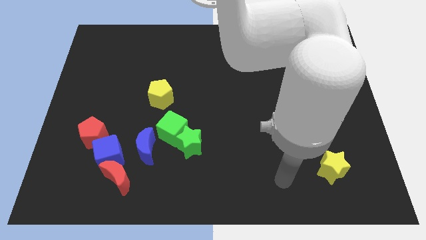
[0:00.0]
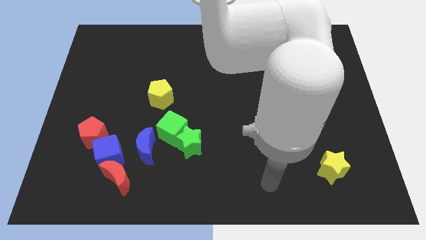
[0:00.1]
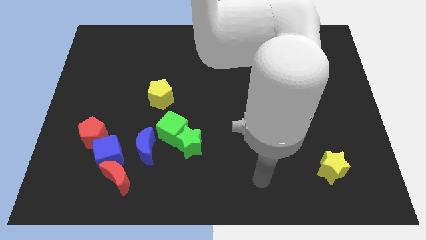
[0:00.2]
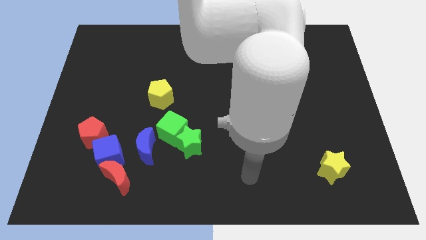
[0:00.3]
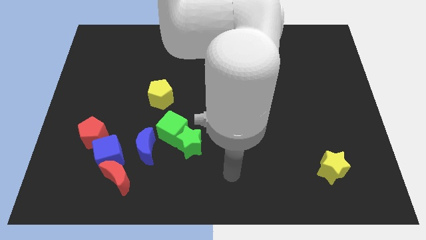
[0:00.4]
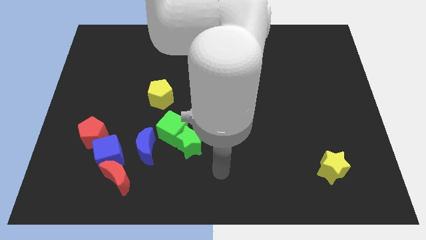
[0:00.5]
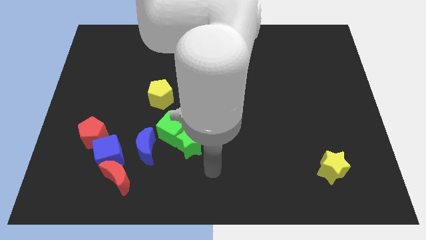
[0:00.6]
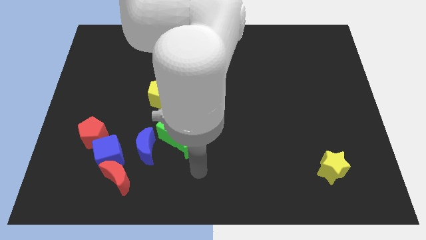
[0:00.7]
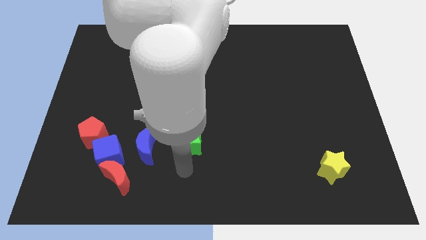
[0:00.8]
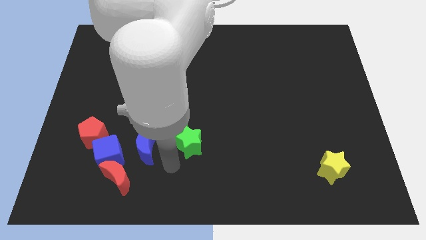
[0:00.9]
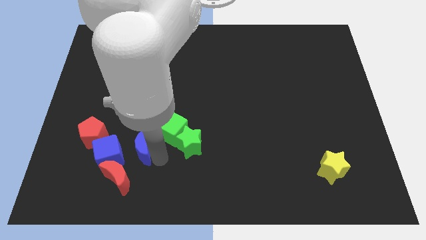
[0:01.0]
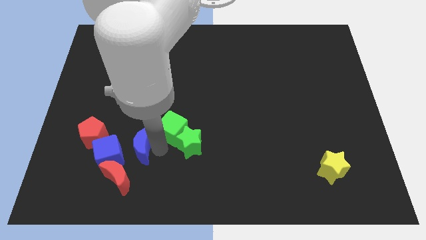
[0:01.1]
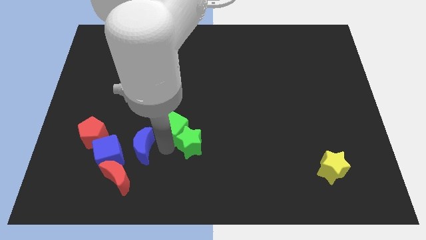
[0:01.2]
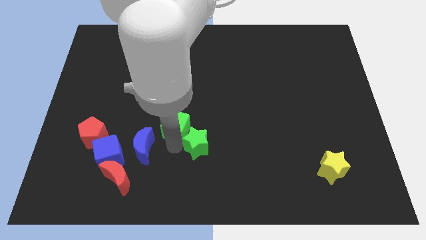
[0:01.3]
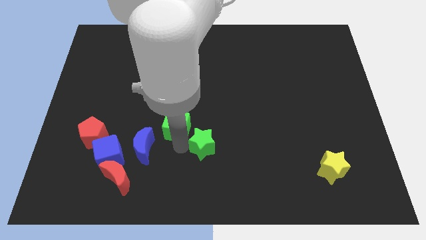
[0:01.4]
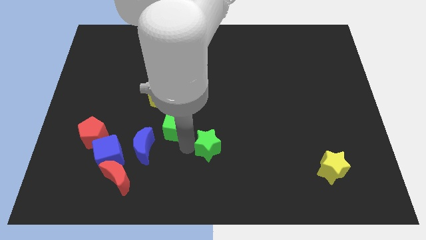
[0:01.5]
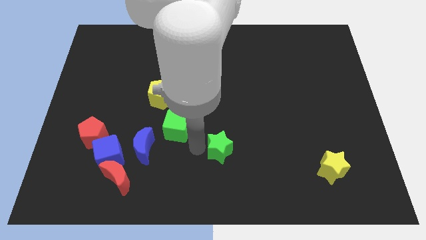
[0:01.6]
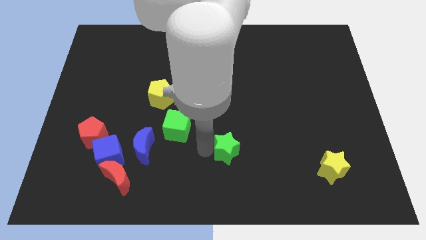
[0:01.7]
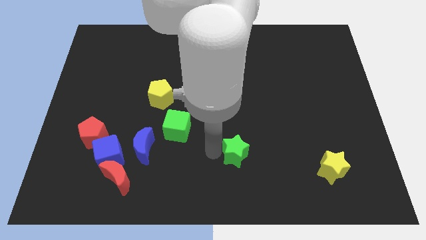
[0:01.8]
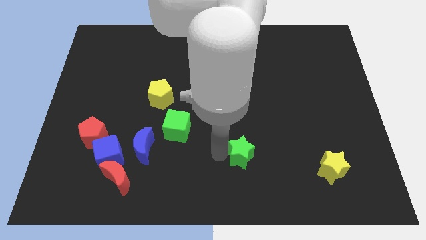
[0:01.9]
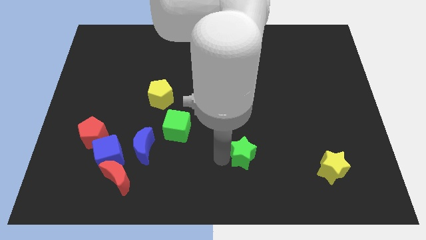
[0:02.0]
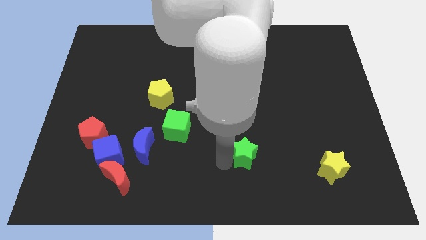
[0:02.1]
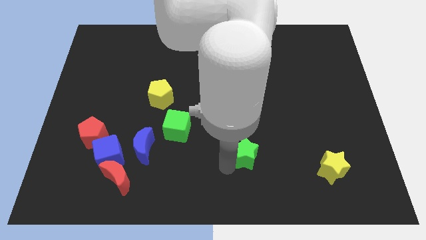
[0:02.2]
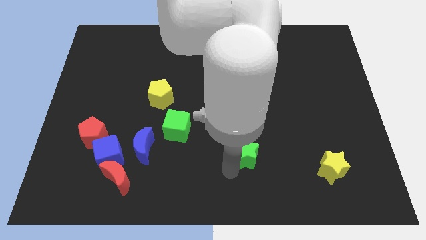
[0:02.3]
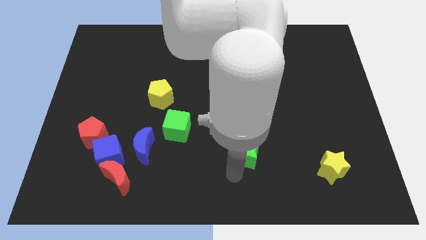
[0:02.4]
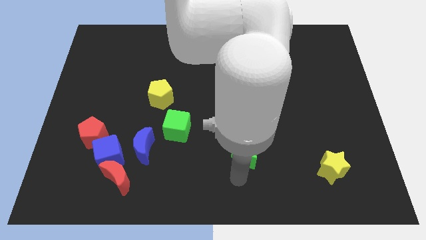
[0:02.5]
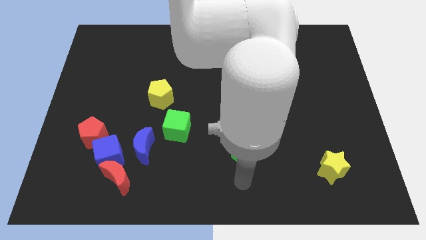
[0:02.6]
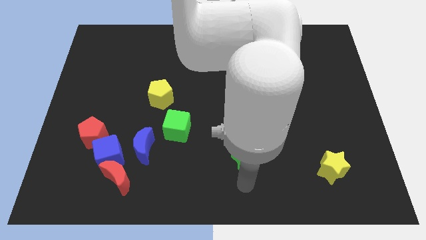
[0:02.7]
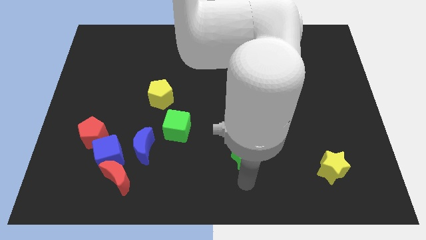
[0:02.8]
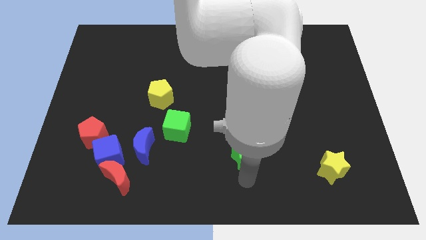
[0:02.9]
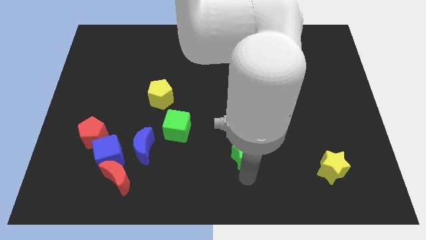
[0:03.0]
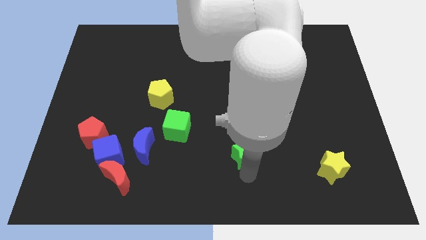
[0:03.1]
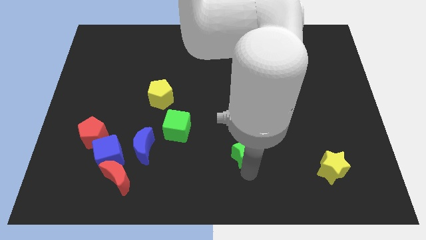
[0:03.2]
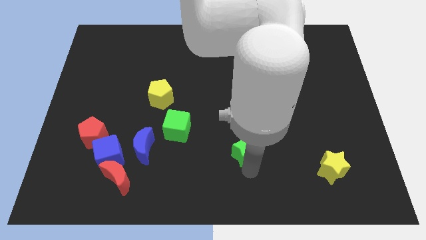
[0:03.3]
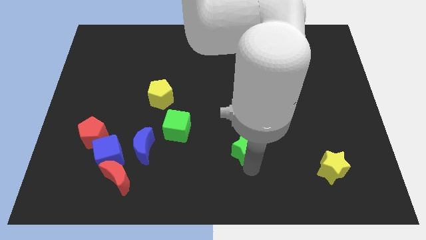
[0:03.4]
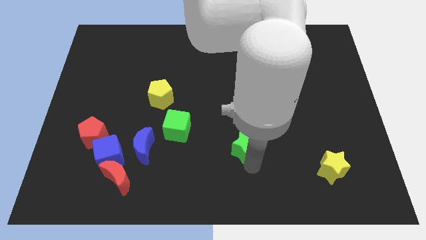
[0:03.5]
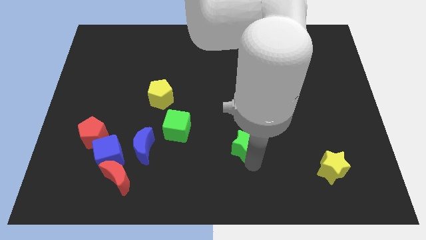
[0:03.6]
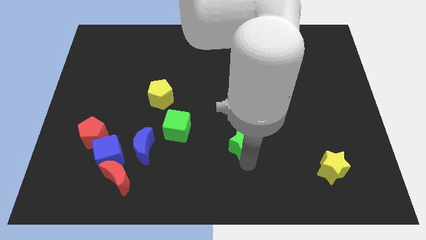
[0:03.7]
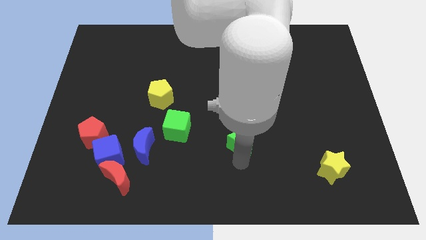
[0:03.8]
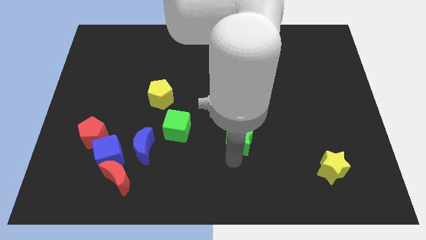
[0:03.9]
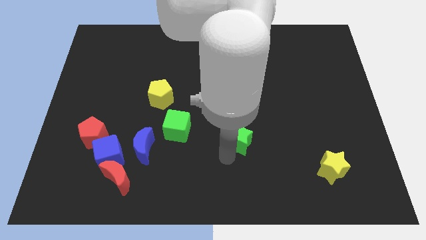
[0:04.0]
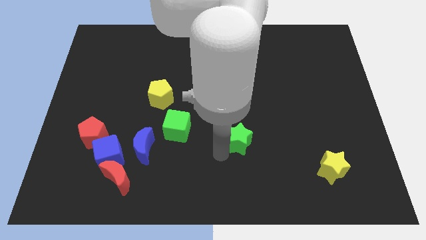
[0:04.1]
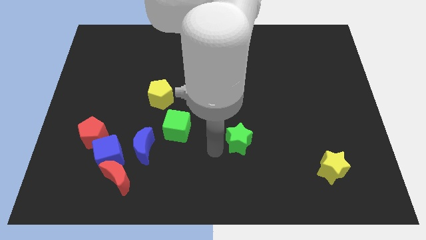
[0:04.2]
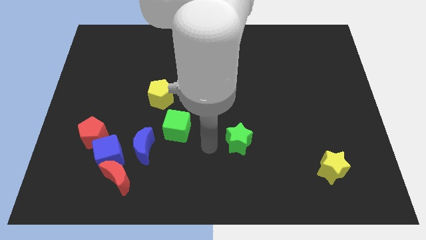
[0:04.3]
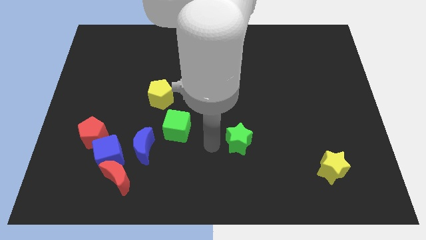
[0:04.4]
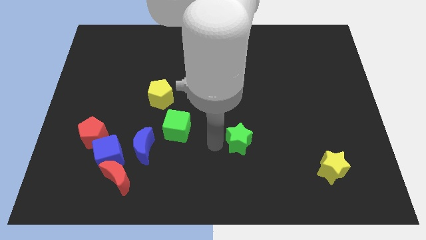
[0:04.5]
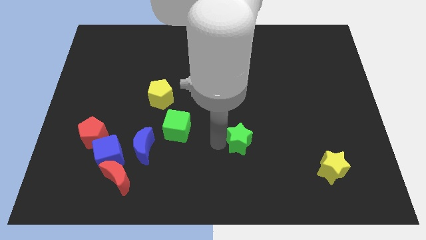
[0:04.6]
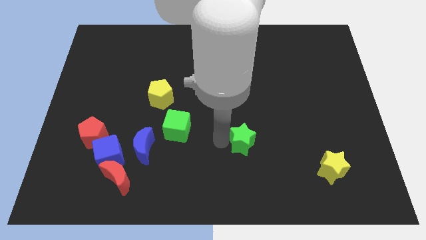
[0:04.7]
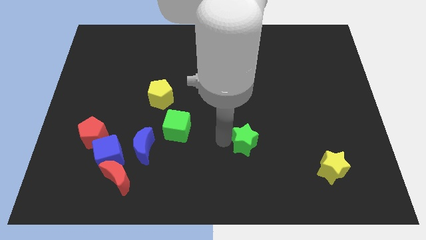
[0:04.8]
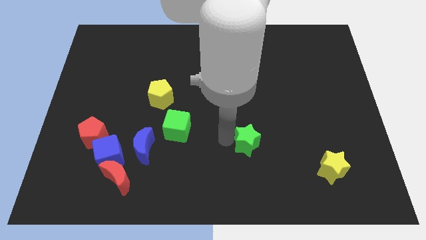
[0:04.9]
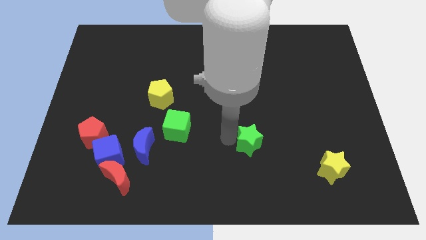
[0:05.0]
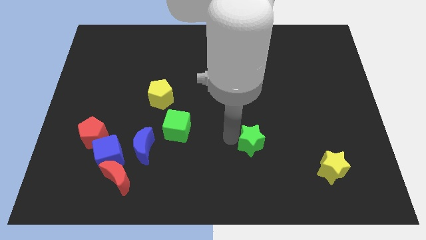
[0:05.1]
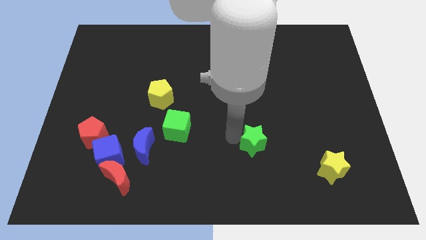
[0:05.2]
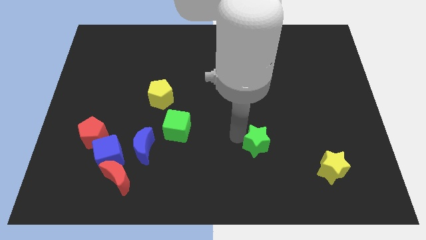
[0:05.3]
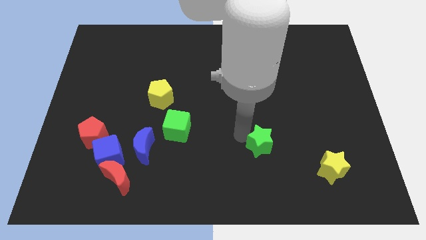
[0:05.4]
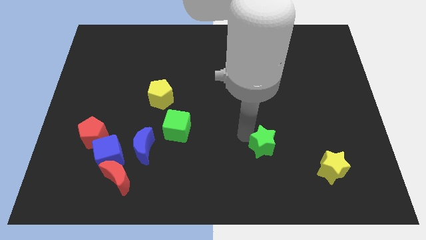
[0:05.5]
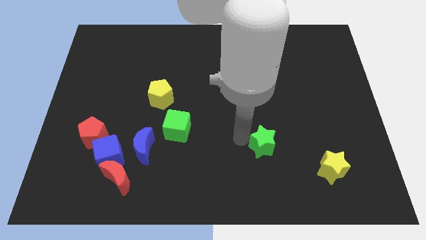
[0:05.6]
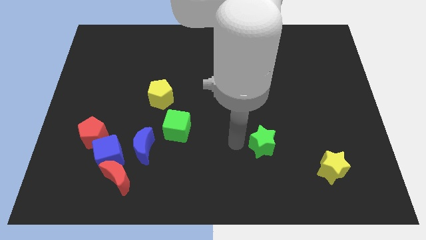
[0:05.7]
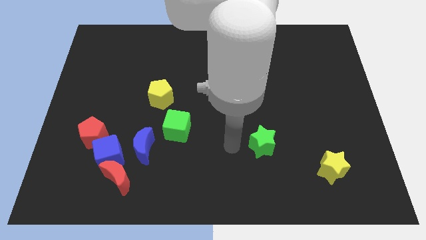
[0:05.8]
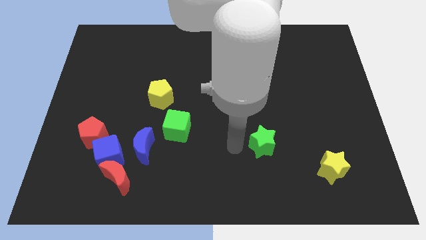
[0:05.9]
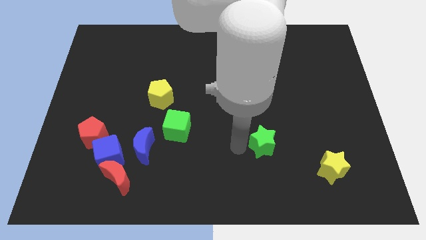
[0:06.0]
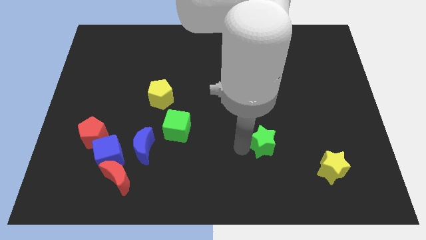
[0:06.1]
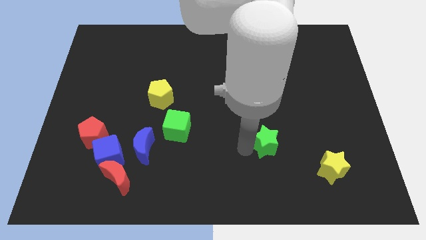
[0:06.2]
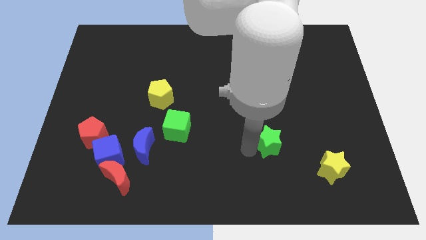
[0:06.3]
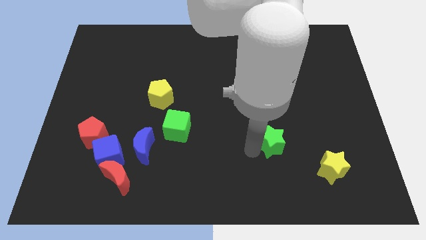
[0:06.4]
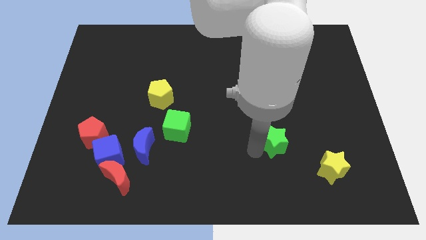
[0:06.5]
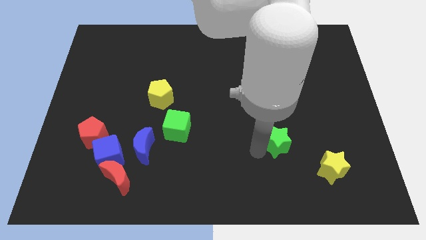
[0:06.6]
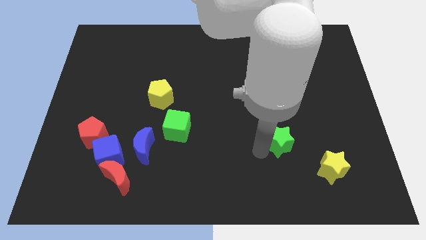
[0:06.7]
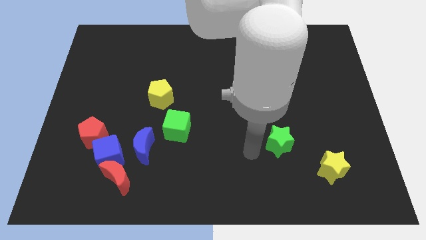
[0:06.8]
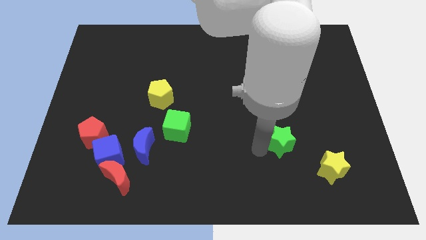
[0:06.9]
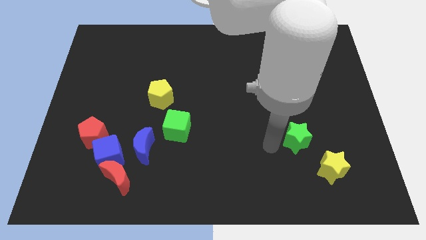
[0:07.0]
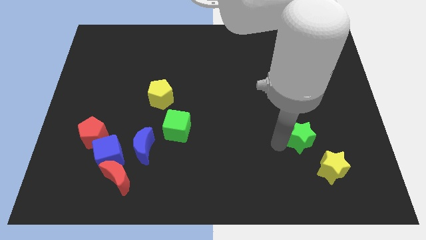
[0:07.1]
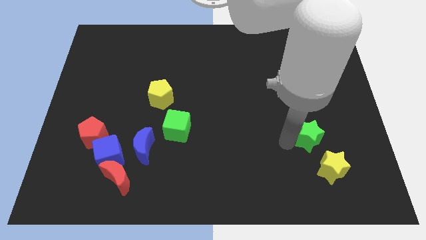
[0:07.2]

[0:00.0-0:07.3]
push the green star to the top side of the yellow star
